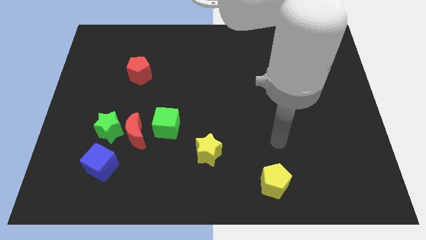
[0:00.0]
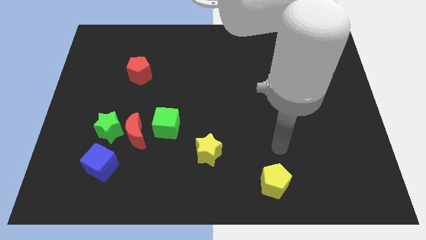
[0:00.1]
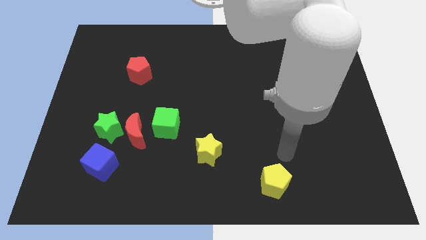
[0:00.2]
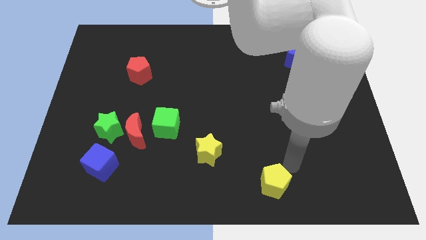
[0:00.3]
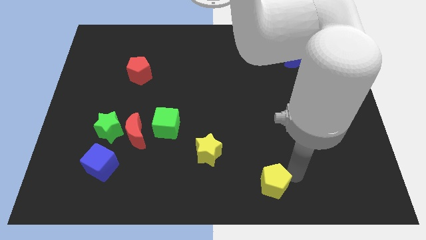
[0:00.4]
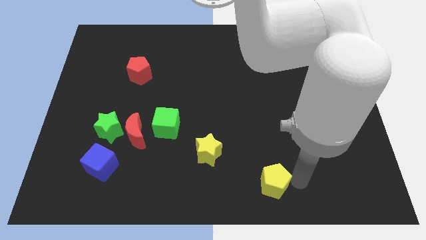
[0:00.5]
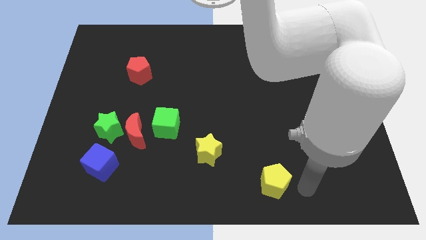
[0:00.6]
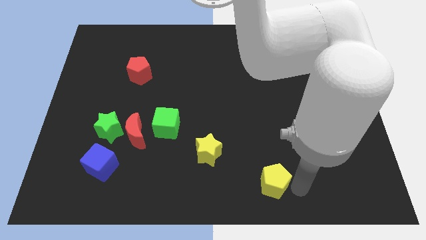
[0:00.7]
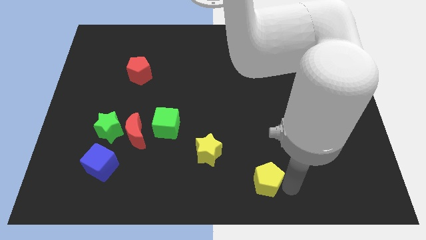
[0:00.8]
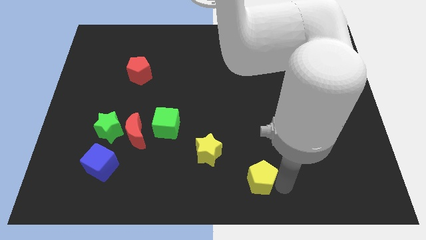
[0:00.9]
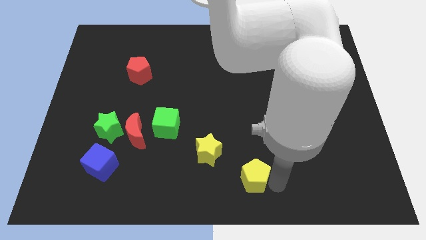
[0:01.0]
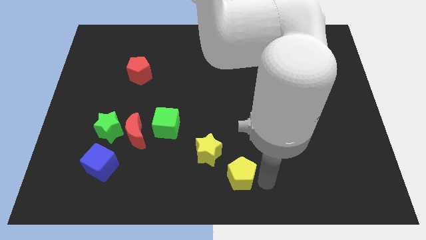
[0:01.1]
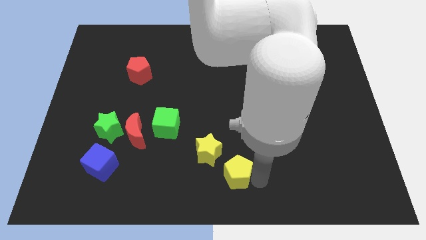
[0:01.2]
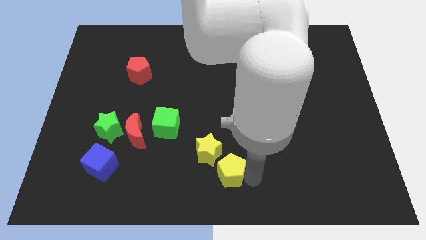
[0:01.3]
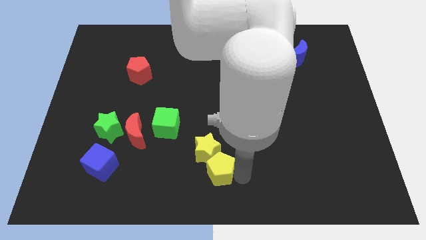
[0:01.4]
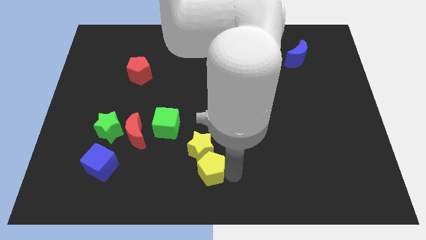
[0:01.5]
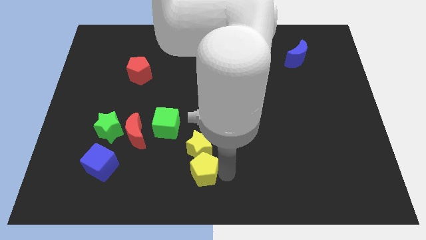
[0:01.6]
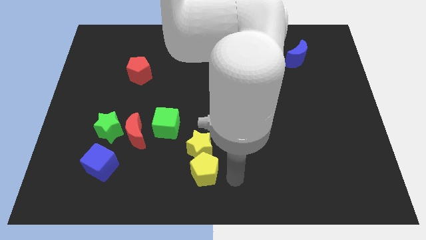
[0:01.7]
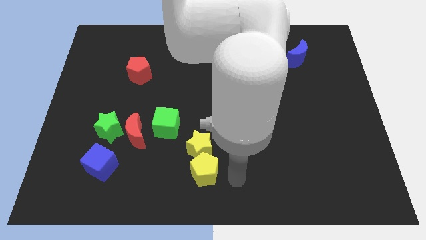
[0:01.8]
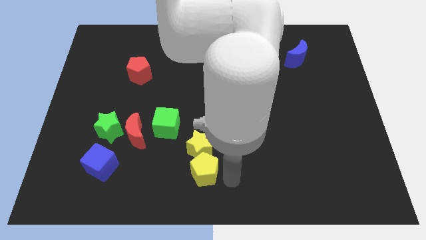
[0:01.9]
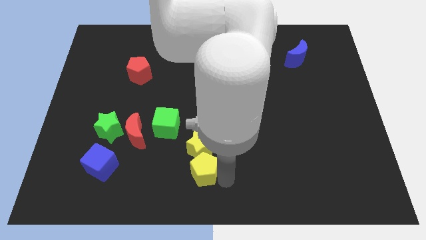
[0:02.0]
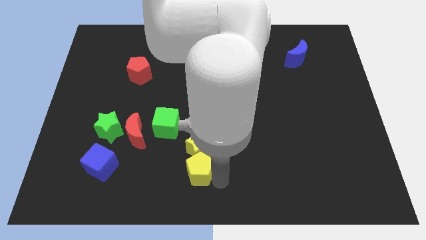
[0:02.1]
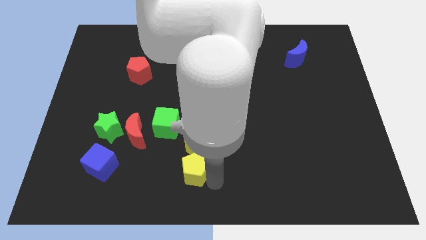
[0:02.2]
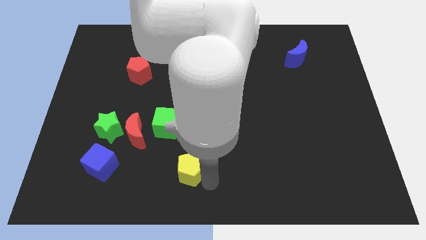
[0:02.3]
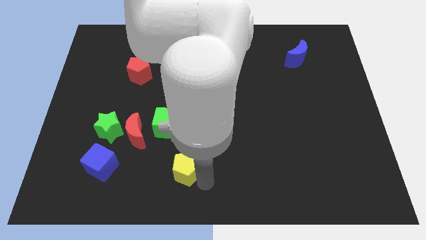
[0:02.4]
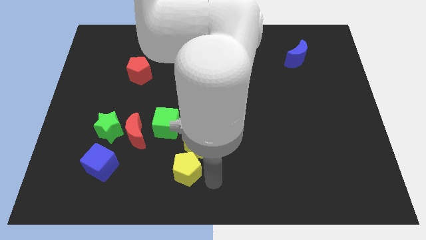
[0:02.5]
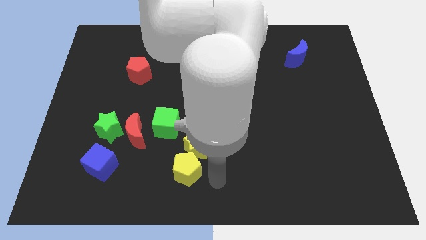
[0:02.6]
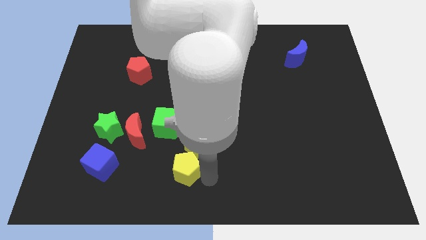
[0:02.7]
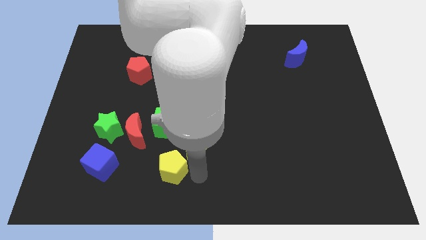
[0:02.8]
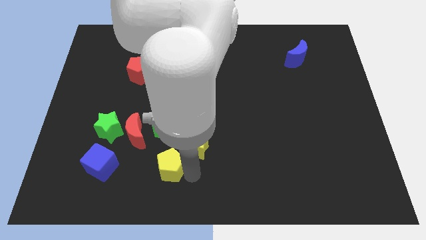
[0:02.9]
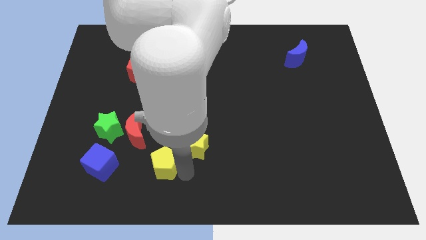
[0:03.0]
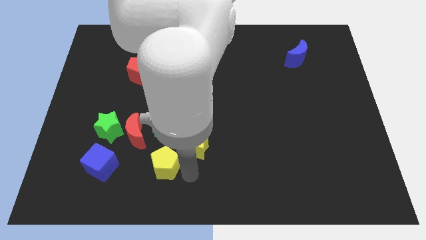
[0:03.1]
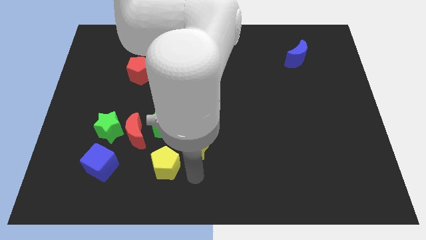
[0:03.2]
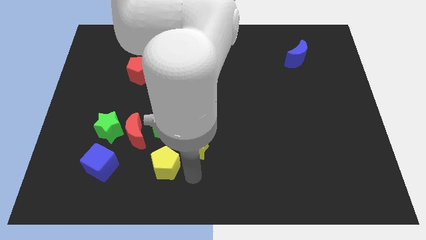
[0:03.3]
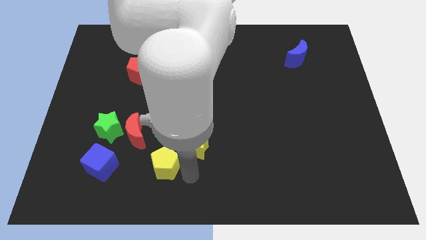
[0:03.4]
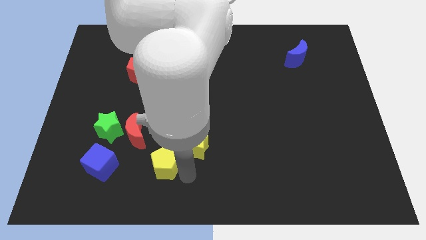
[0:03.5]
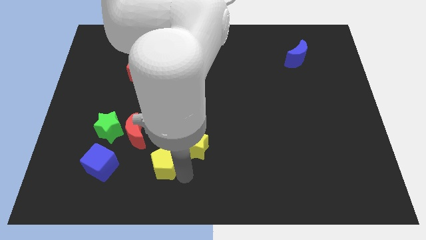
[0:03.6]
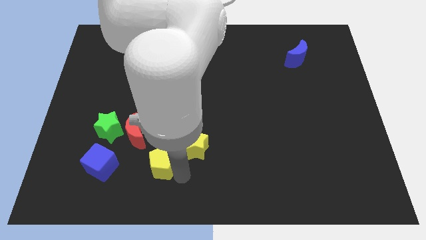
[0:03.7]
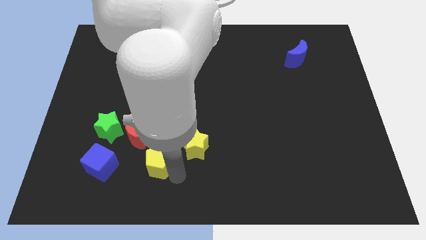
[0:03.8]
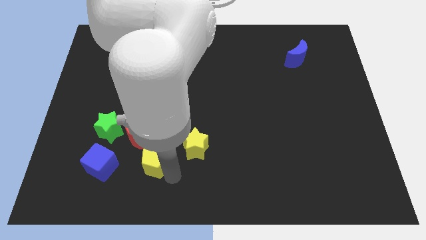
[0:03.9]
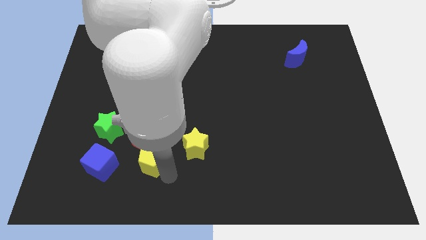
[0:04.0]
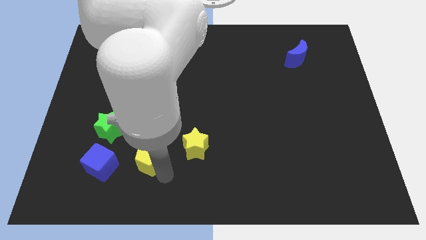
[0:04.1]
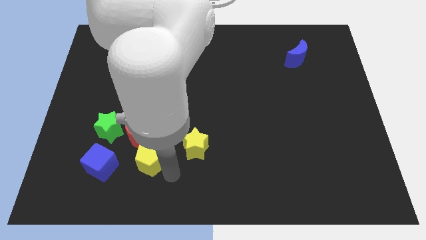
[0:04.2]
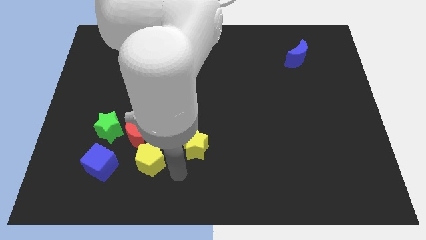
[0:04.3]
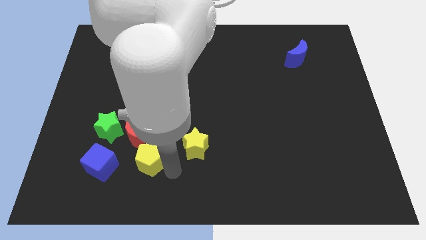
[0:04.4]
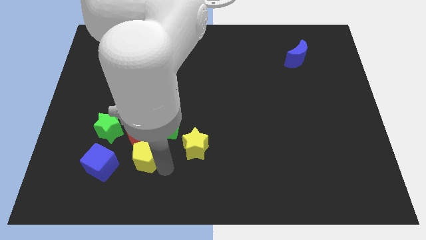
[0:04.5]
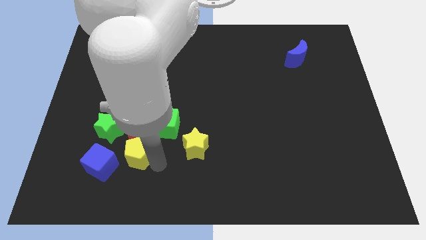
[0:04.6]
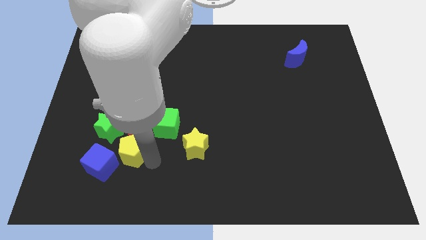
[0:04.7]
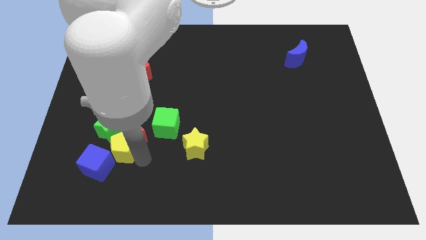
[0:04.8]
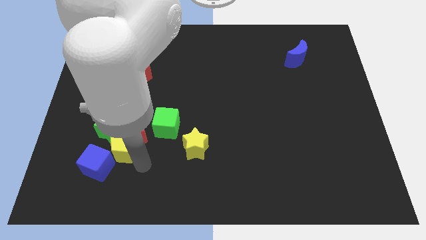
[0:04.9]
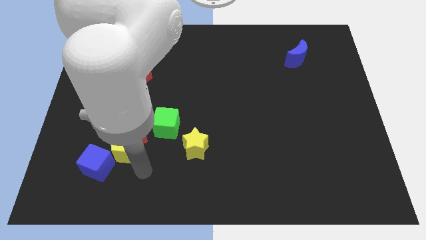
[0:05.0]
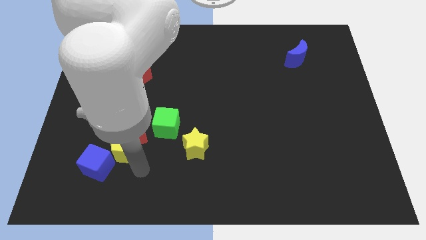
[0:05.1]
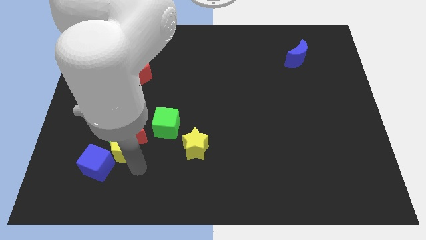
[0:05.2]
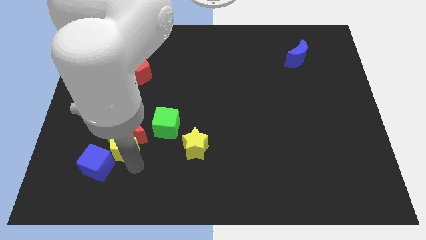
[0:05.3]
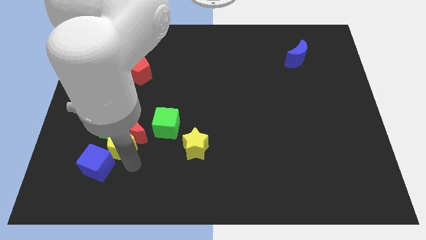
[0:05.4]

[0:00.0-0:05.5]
push the yellow pentagon to the green star

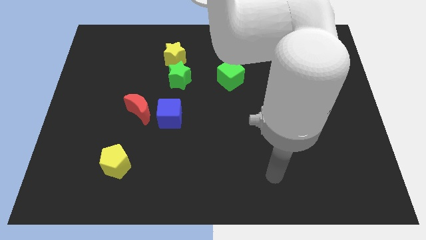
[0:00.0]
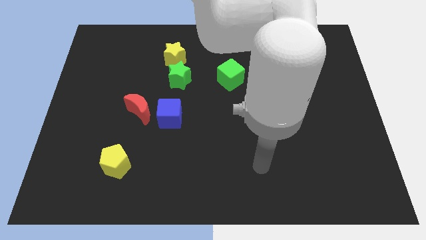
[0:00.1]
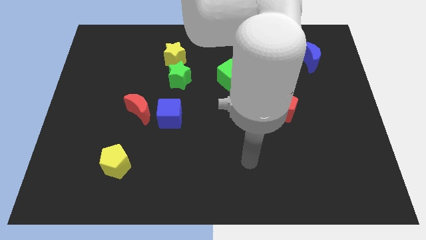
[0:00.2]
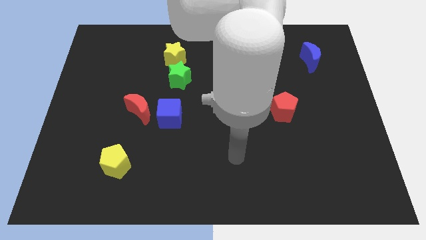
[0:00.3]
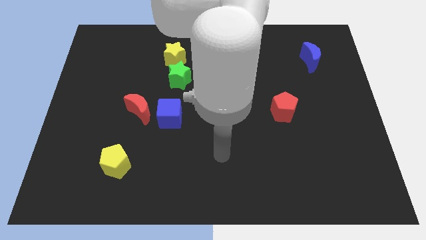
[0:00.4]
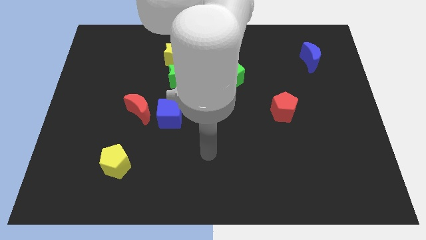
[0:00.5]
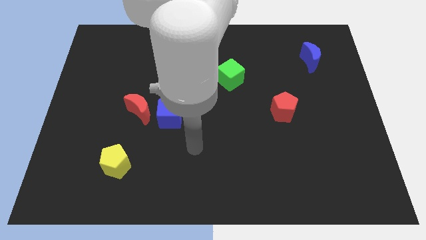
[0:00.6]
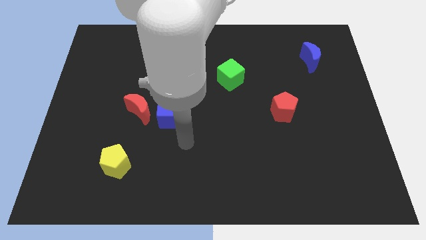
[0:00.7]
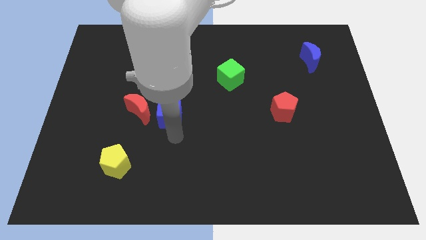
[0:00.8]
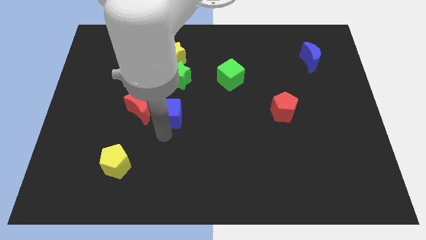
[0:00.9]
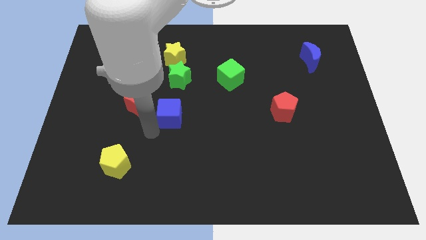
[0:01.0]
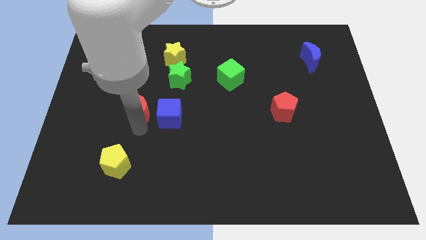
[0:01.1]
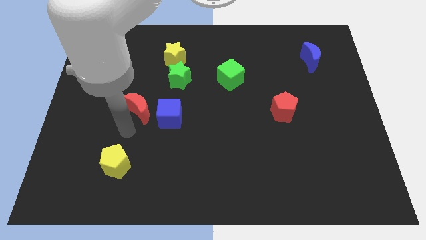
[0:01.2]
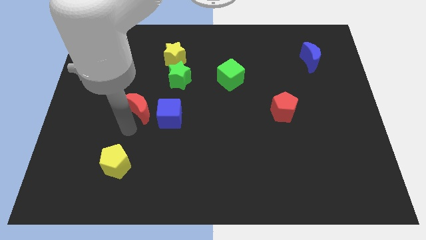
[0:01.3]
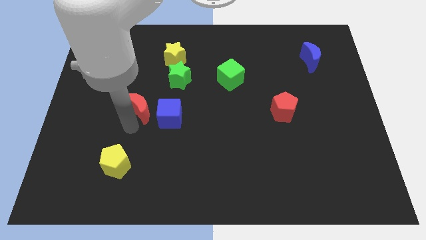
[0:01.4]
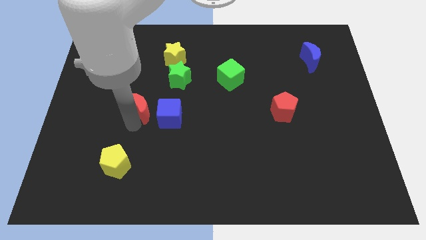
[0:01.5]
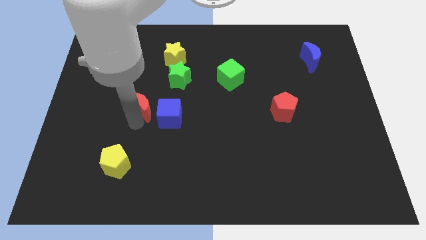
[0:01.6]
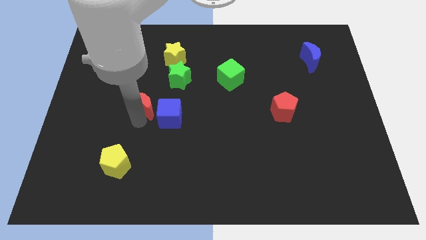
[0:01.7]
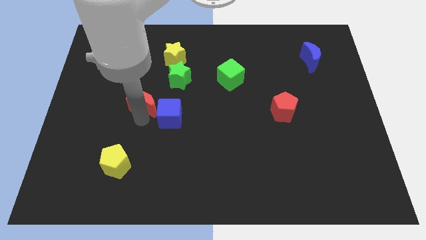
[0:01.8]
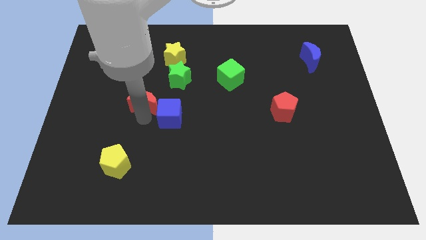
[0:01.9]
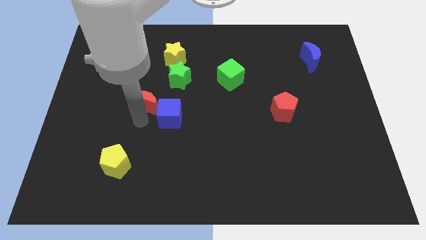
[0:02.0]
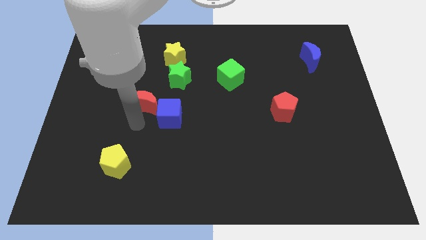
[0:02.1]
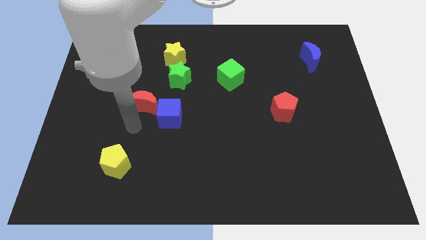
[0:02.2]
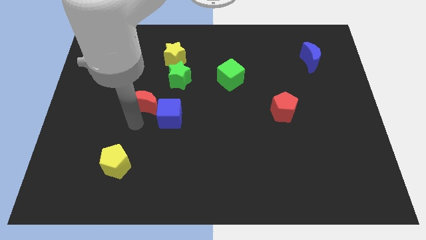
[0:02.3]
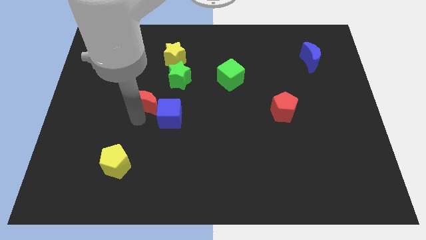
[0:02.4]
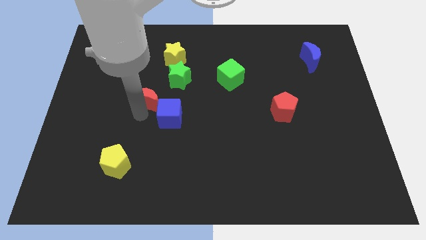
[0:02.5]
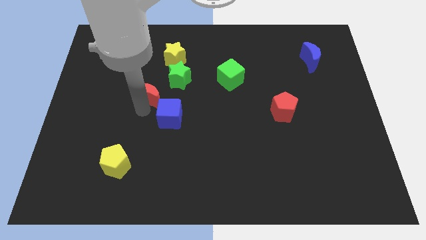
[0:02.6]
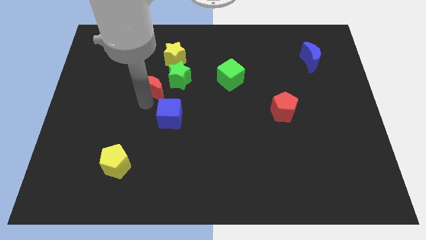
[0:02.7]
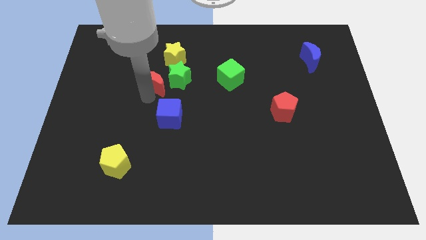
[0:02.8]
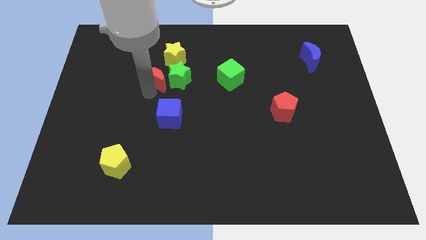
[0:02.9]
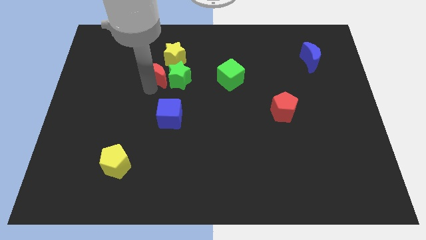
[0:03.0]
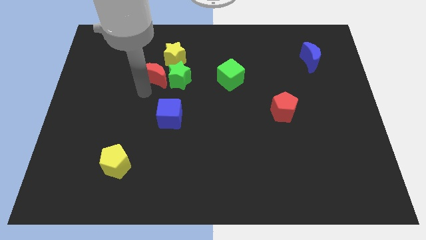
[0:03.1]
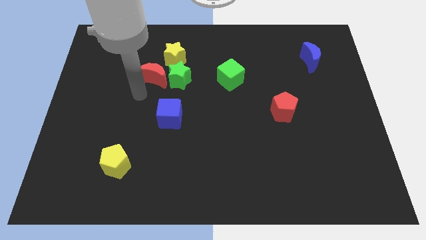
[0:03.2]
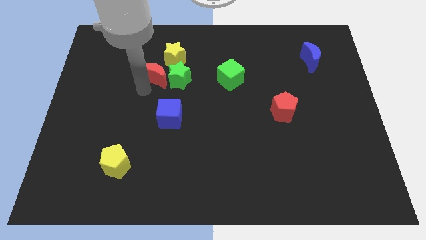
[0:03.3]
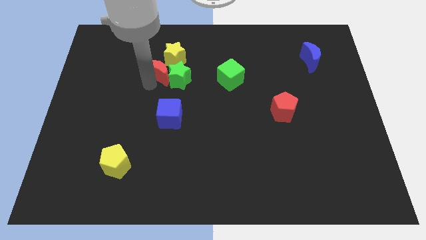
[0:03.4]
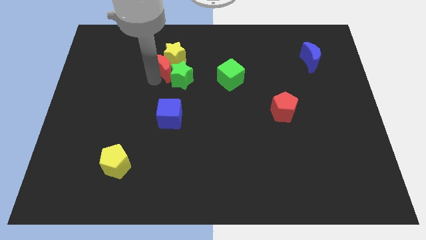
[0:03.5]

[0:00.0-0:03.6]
put the red moon to the yellow star
